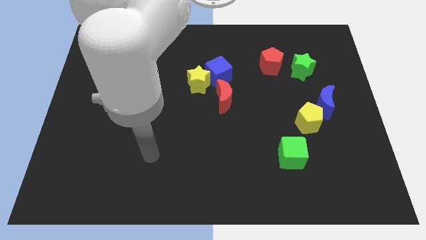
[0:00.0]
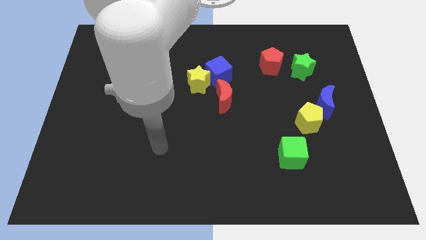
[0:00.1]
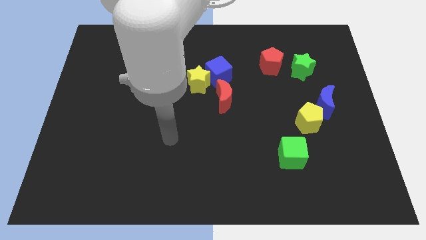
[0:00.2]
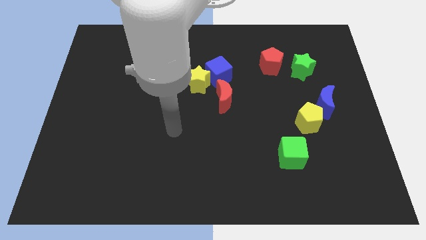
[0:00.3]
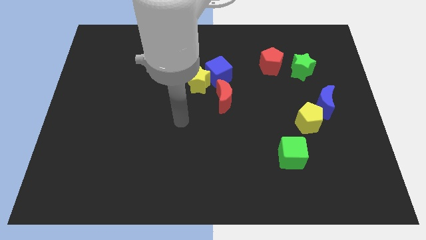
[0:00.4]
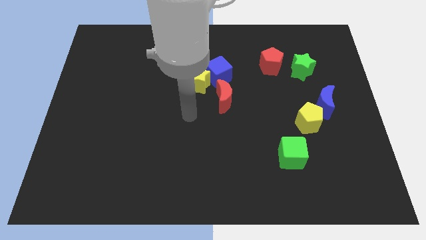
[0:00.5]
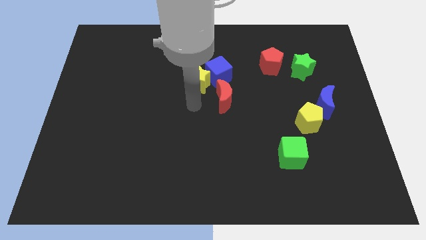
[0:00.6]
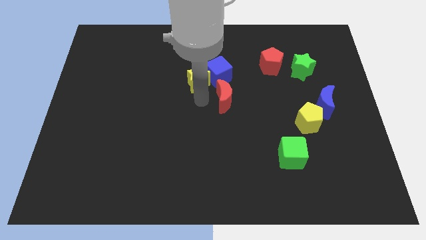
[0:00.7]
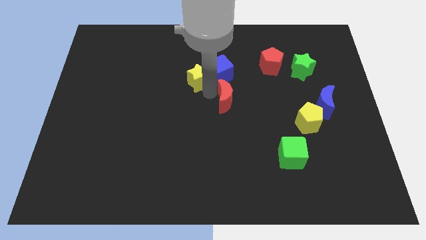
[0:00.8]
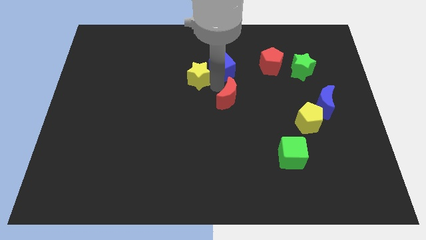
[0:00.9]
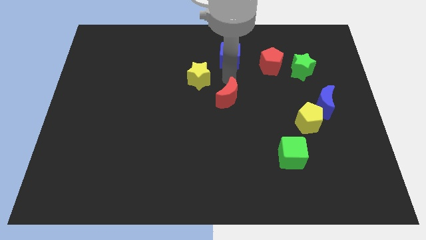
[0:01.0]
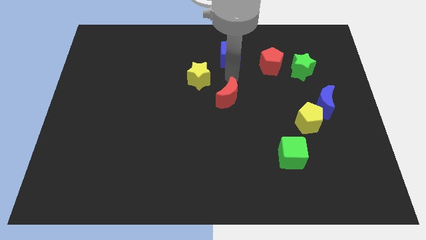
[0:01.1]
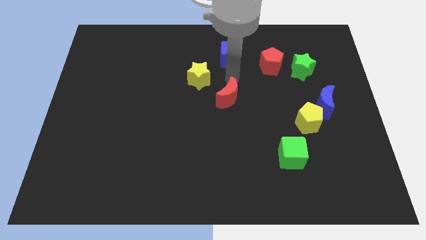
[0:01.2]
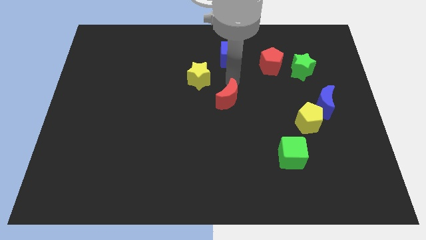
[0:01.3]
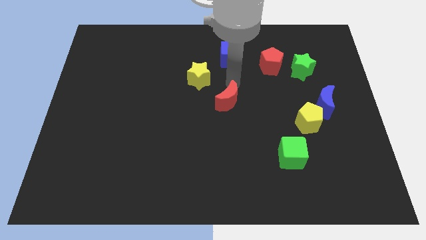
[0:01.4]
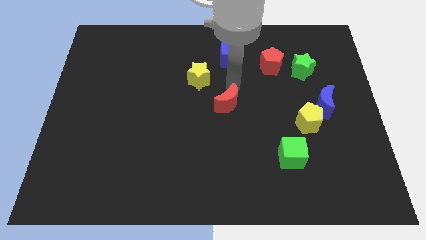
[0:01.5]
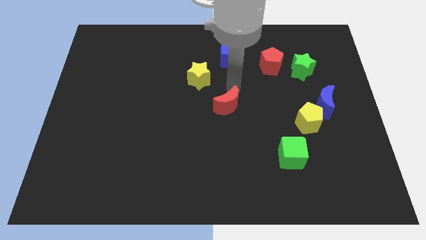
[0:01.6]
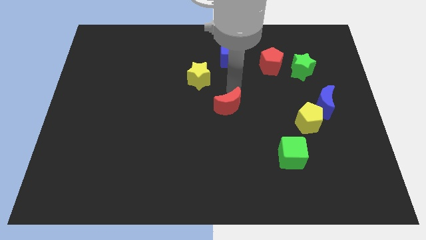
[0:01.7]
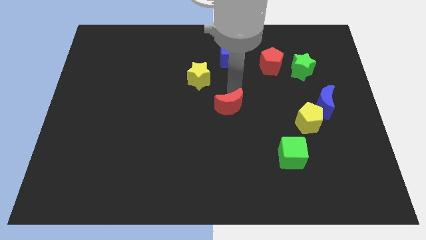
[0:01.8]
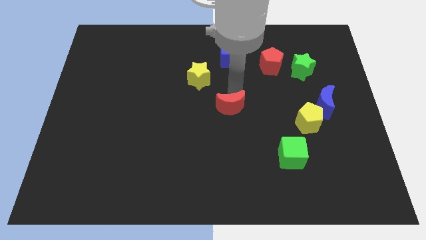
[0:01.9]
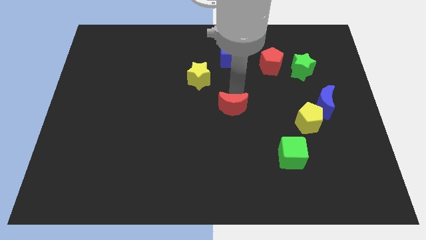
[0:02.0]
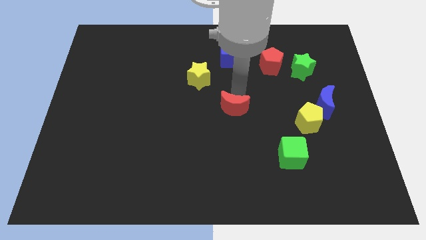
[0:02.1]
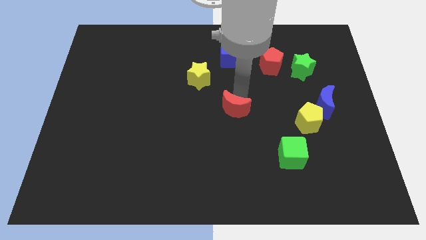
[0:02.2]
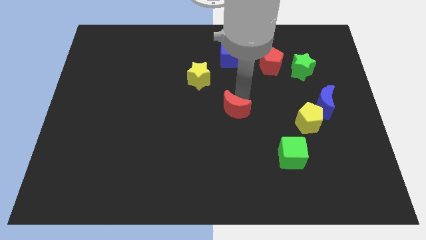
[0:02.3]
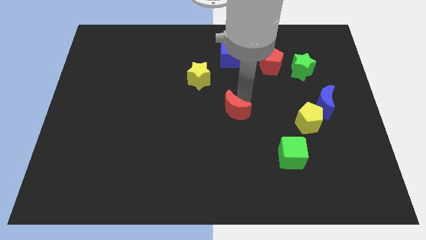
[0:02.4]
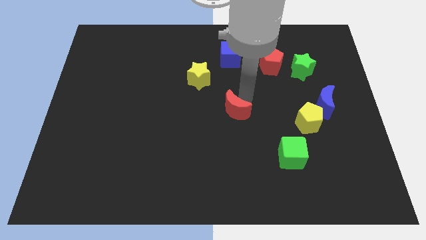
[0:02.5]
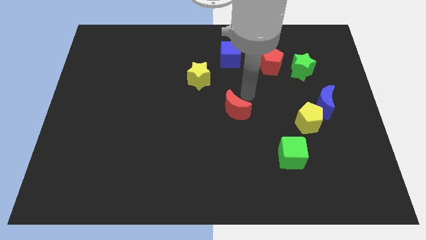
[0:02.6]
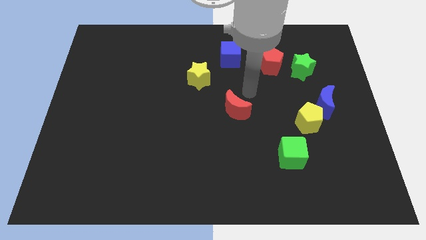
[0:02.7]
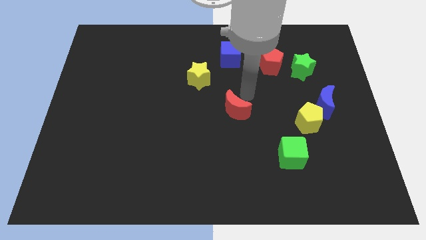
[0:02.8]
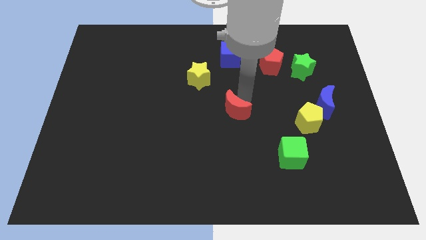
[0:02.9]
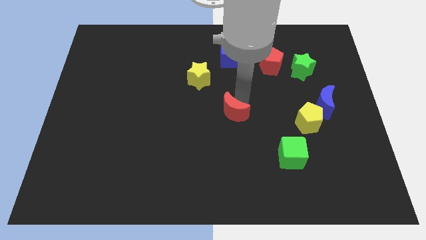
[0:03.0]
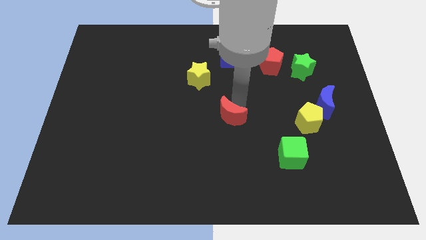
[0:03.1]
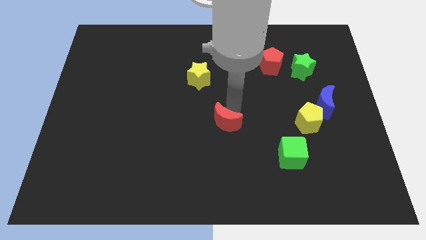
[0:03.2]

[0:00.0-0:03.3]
slightly slide the red moon down

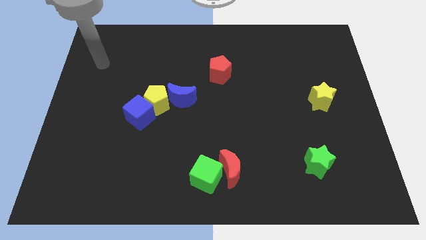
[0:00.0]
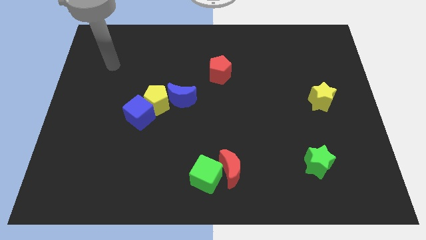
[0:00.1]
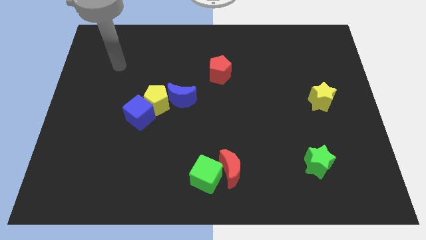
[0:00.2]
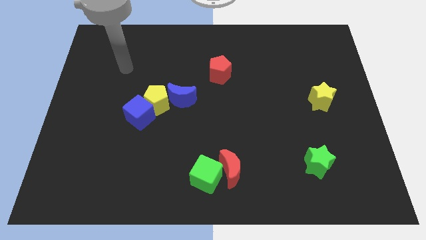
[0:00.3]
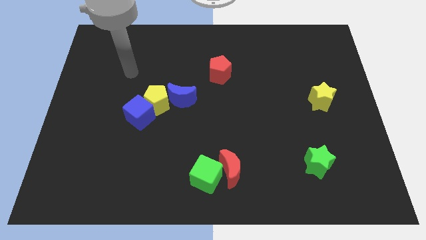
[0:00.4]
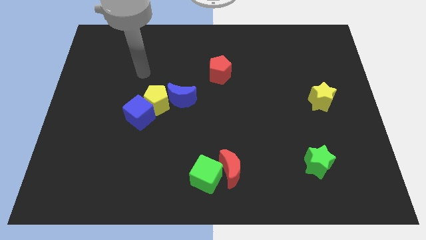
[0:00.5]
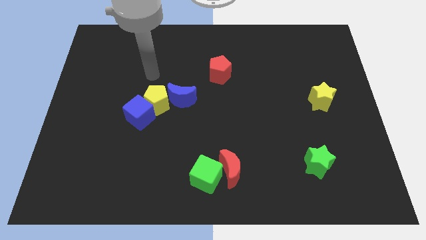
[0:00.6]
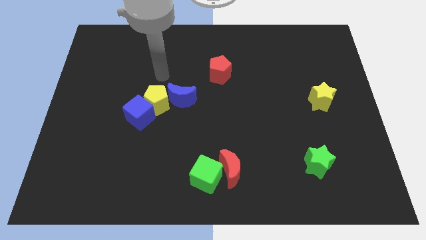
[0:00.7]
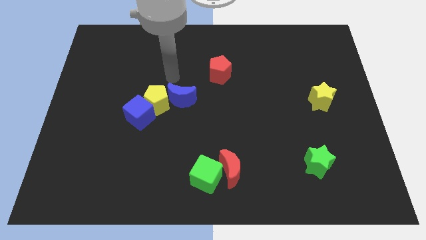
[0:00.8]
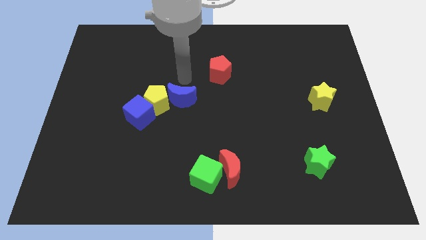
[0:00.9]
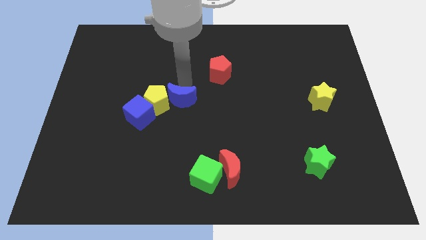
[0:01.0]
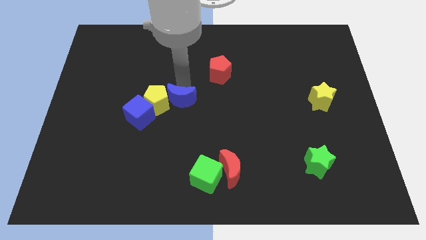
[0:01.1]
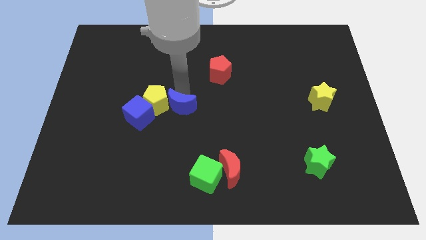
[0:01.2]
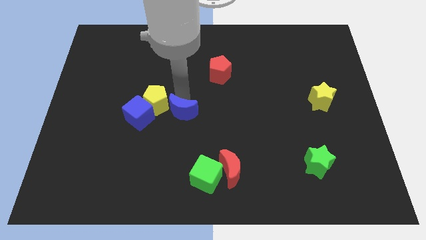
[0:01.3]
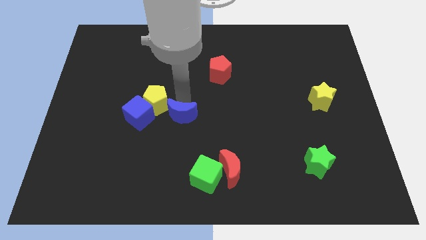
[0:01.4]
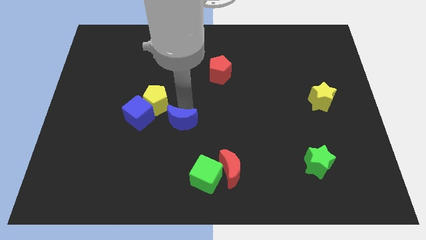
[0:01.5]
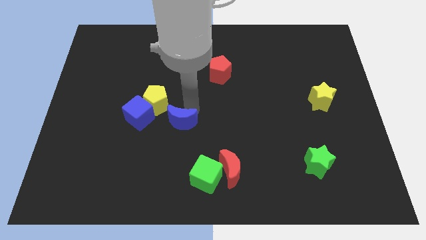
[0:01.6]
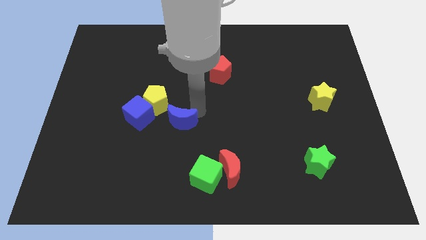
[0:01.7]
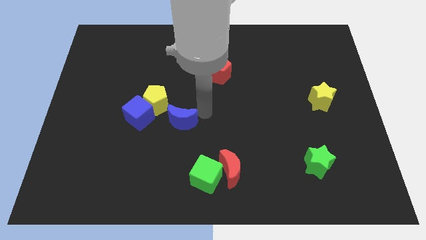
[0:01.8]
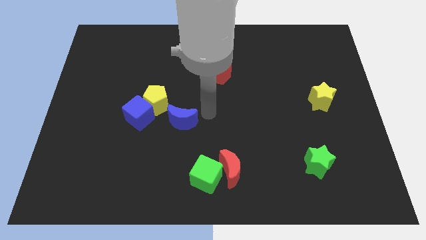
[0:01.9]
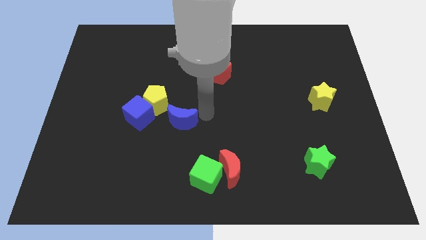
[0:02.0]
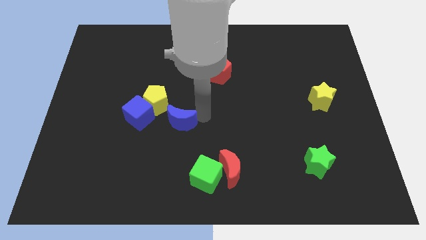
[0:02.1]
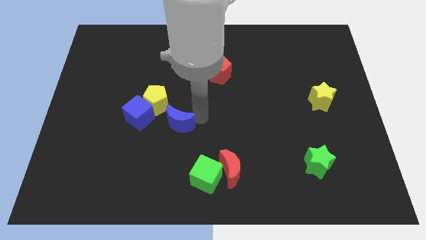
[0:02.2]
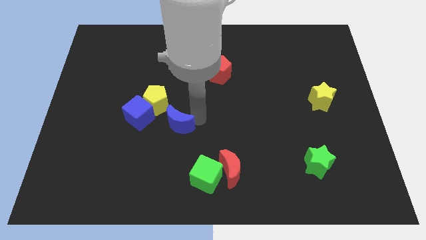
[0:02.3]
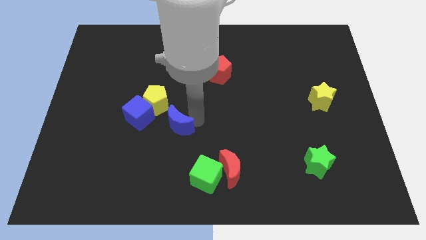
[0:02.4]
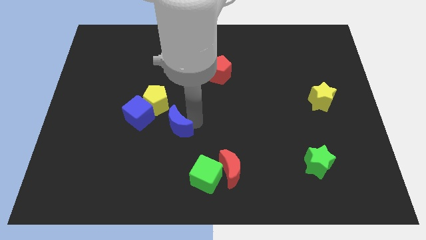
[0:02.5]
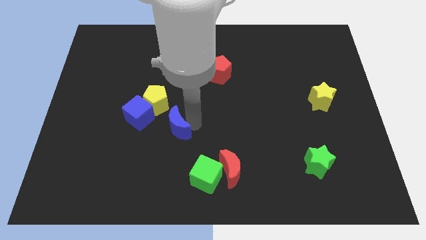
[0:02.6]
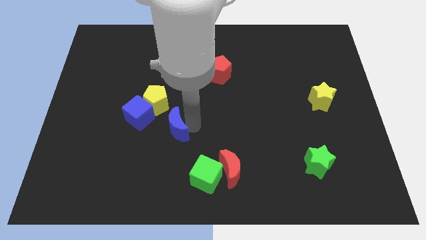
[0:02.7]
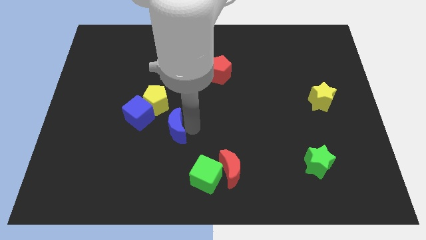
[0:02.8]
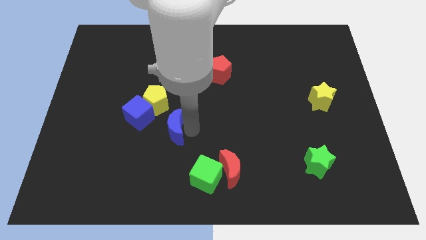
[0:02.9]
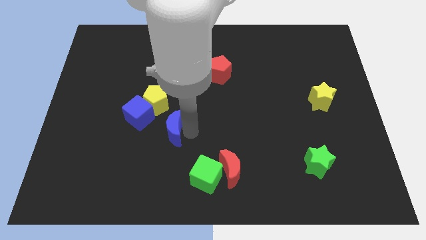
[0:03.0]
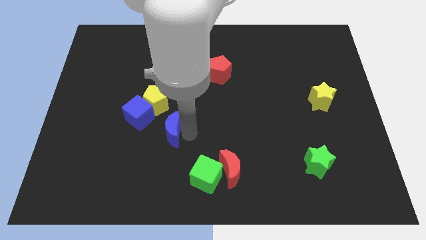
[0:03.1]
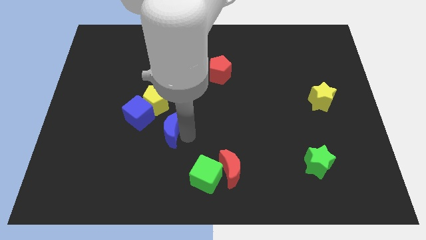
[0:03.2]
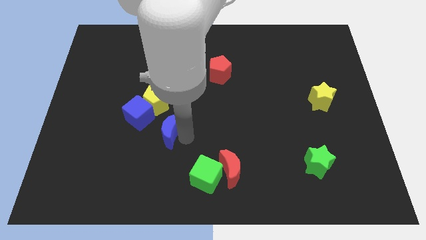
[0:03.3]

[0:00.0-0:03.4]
move the blue moon downwards and to the left somewhat

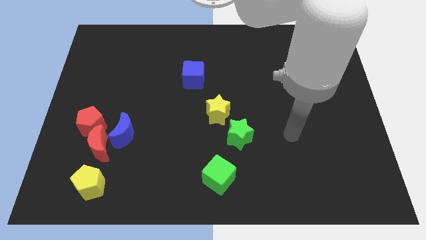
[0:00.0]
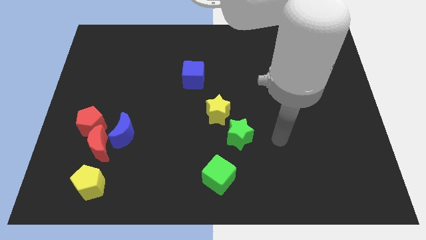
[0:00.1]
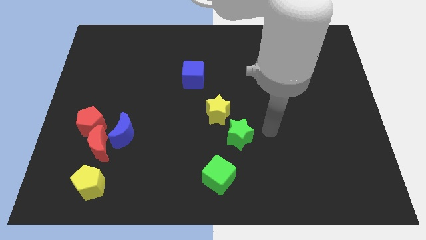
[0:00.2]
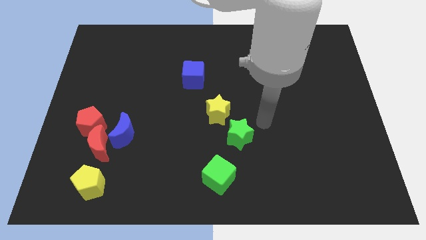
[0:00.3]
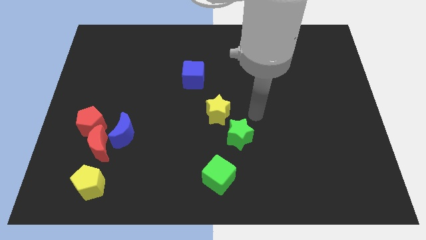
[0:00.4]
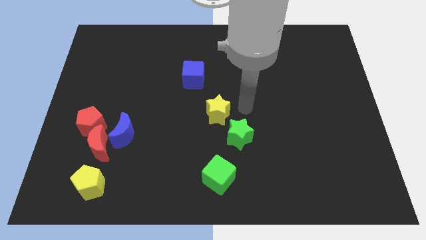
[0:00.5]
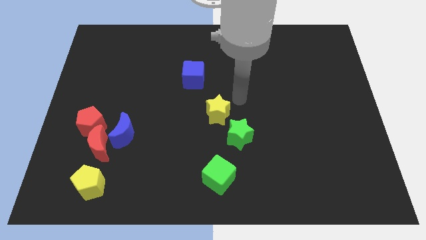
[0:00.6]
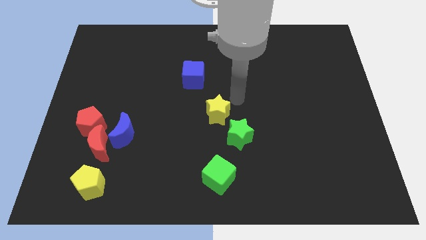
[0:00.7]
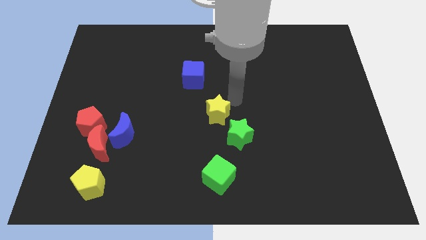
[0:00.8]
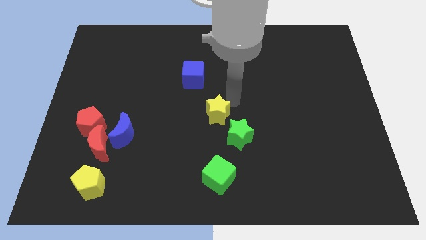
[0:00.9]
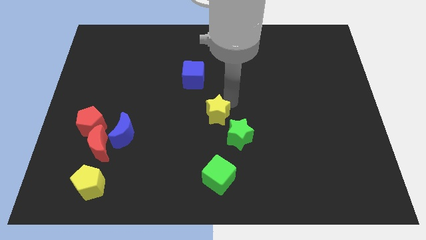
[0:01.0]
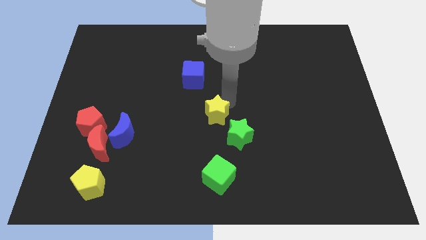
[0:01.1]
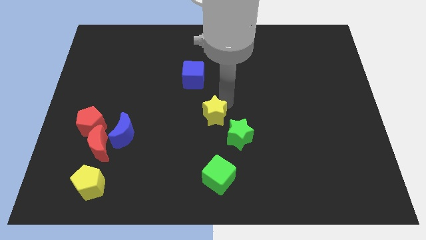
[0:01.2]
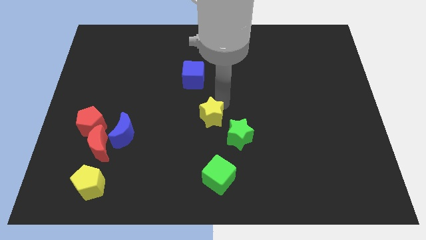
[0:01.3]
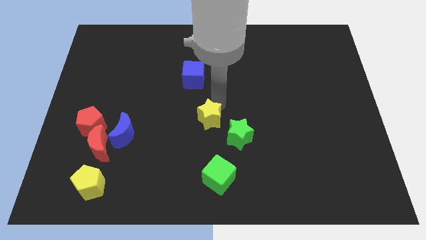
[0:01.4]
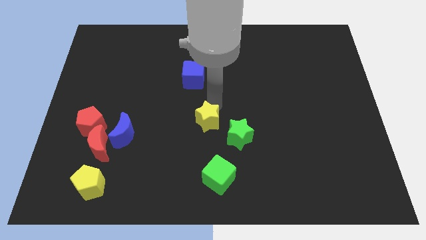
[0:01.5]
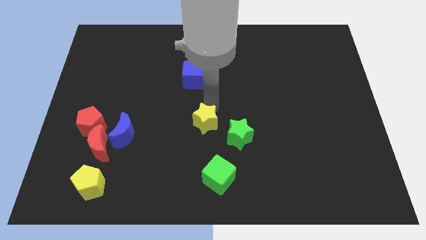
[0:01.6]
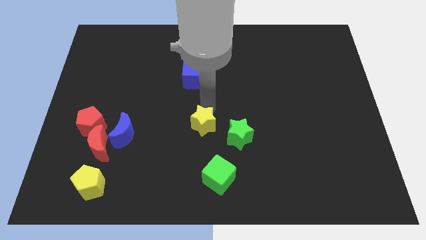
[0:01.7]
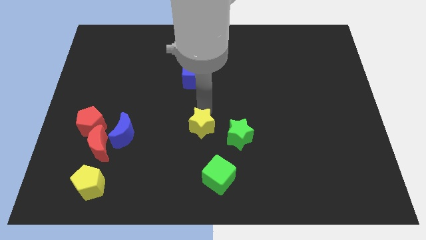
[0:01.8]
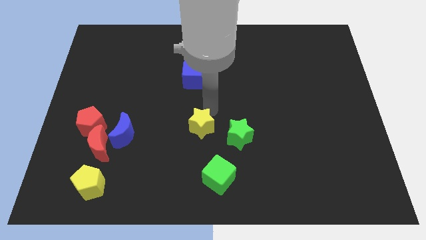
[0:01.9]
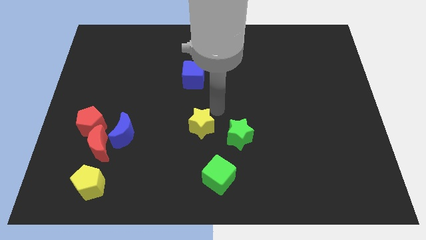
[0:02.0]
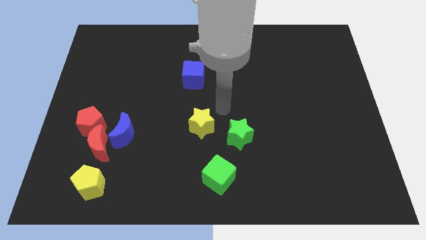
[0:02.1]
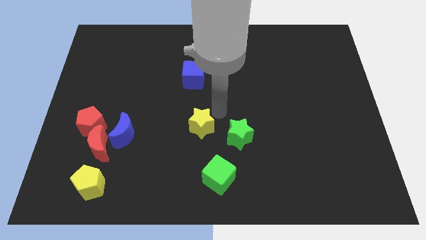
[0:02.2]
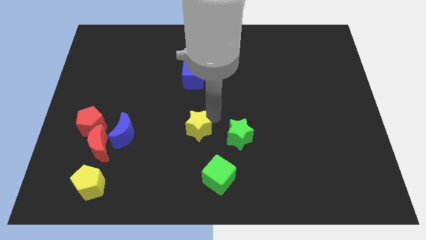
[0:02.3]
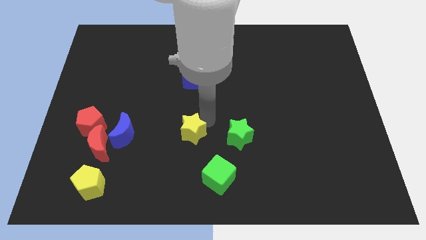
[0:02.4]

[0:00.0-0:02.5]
move the yellow star downwards and left a little bit
